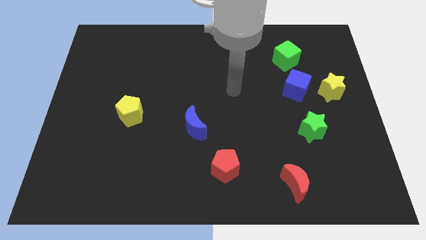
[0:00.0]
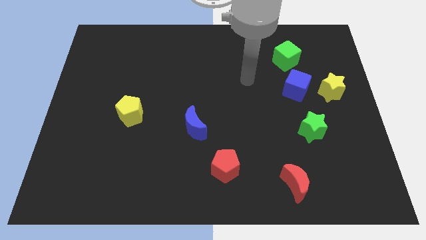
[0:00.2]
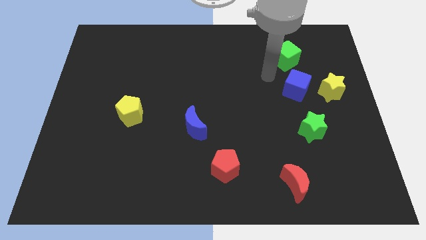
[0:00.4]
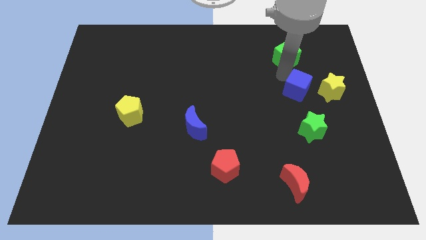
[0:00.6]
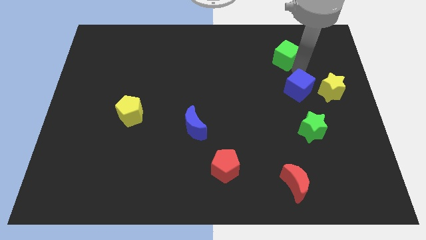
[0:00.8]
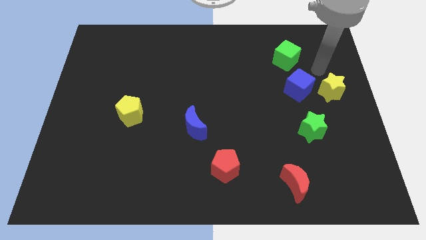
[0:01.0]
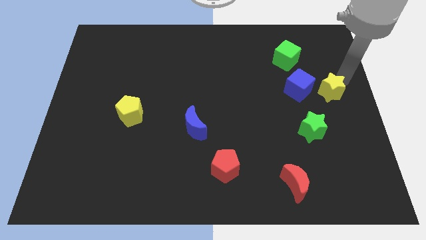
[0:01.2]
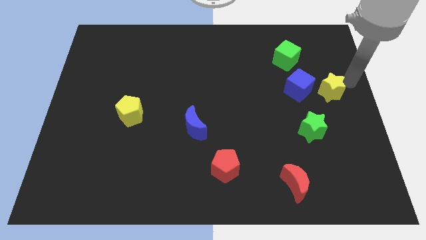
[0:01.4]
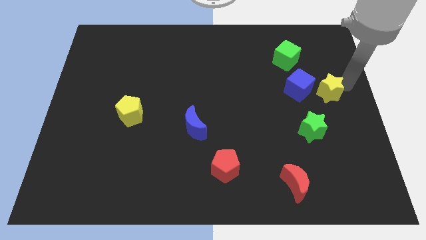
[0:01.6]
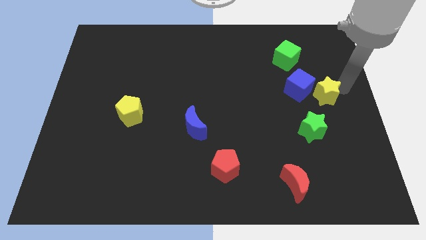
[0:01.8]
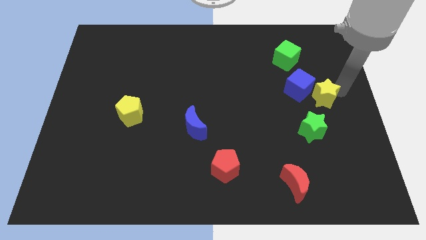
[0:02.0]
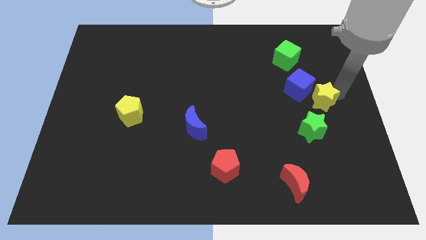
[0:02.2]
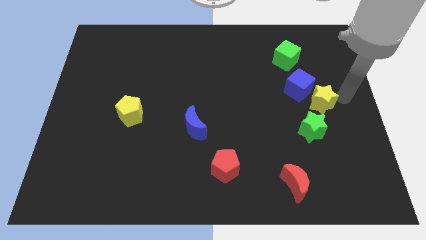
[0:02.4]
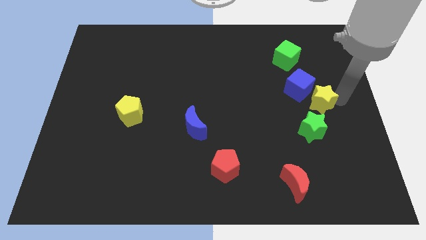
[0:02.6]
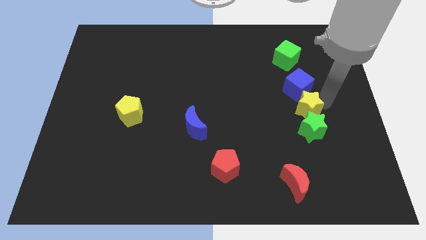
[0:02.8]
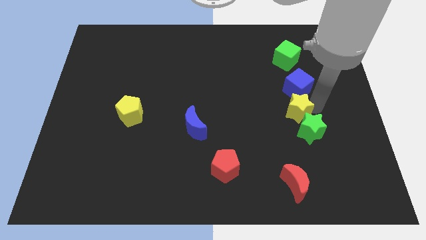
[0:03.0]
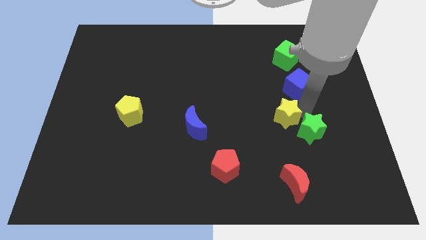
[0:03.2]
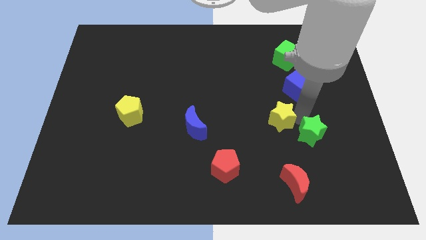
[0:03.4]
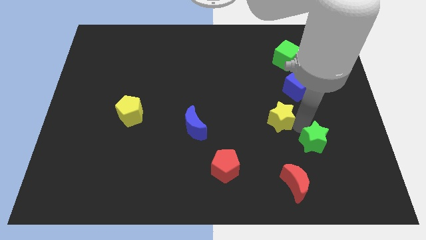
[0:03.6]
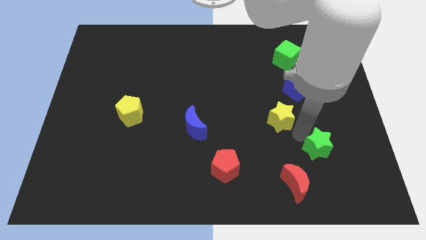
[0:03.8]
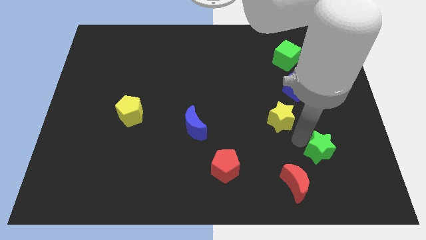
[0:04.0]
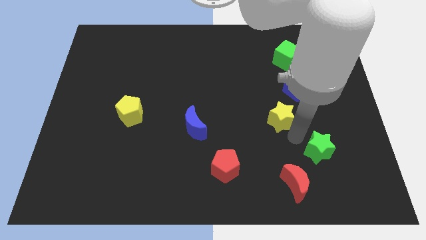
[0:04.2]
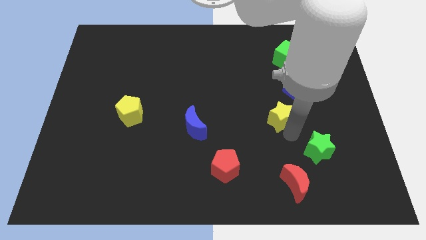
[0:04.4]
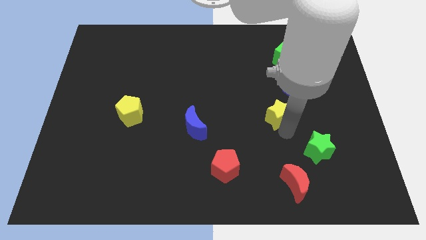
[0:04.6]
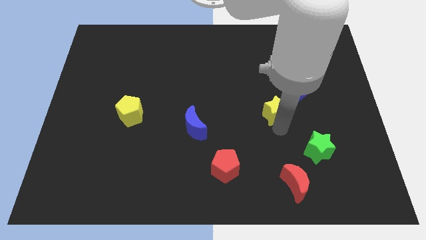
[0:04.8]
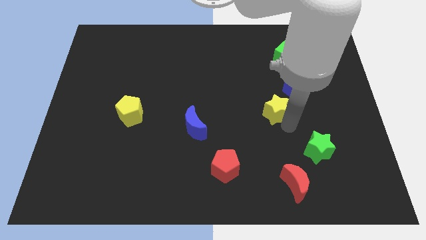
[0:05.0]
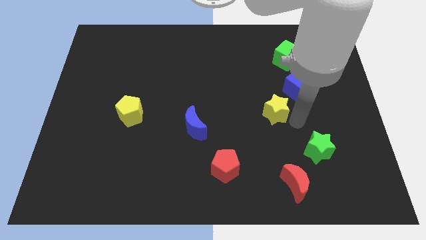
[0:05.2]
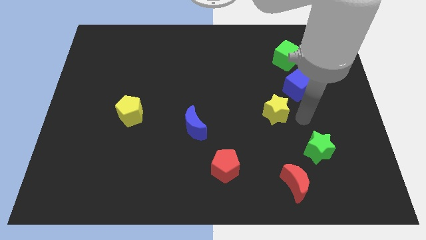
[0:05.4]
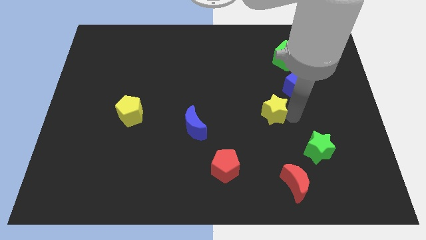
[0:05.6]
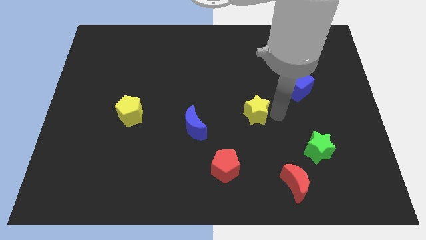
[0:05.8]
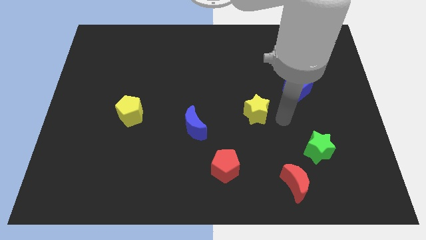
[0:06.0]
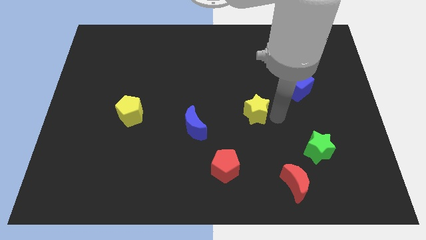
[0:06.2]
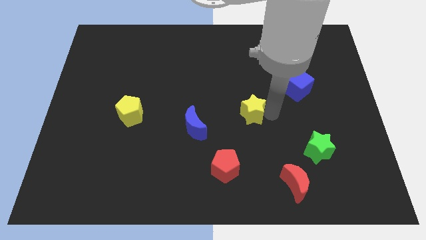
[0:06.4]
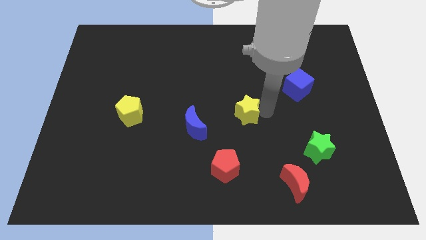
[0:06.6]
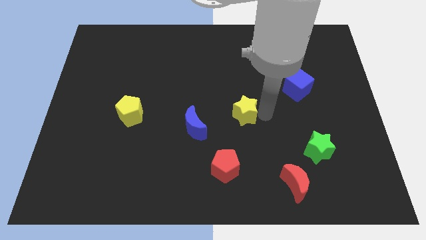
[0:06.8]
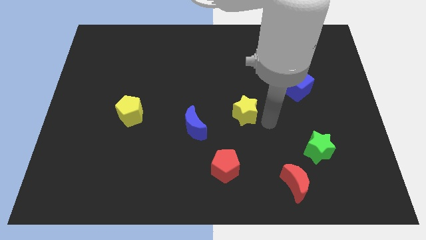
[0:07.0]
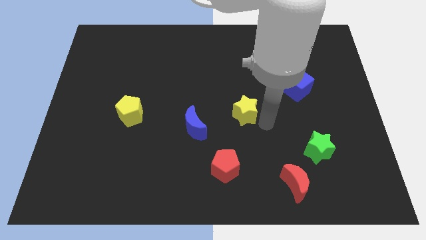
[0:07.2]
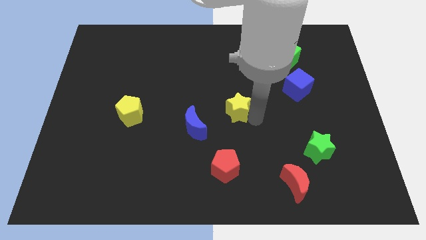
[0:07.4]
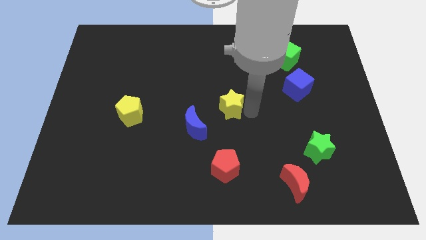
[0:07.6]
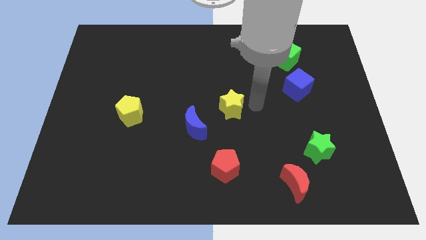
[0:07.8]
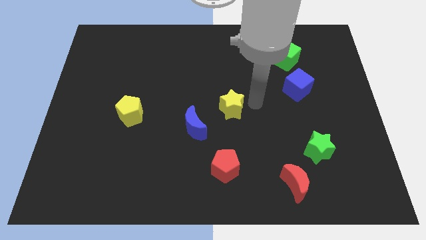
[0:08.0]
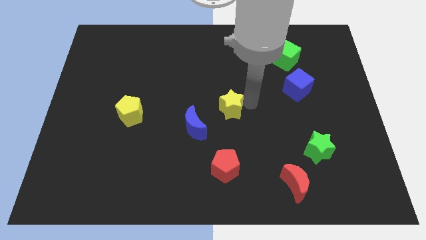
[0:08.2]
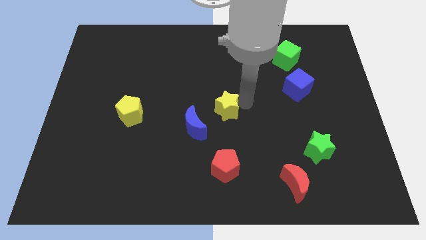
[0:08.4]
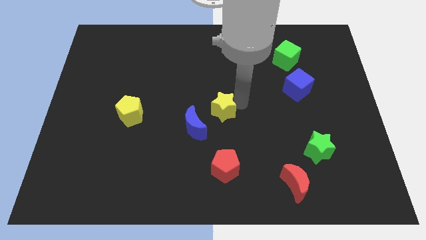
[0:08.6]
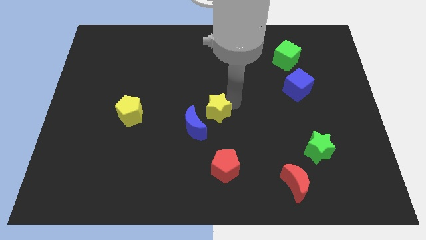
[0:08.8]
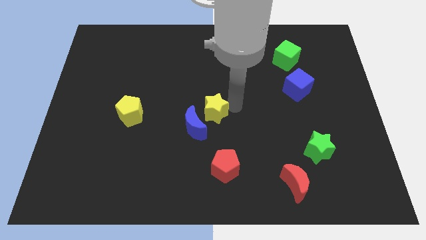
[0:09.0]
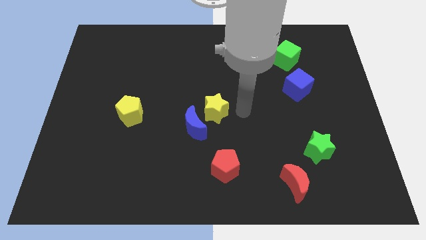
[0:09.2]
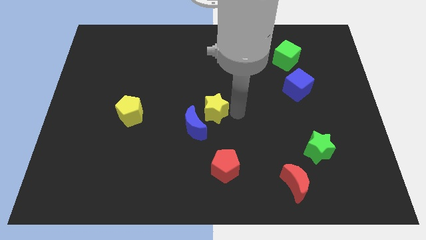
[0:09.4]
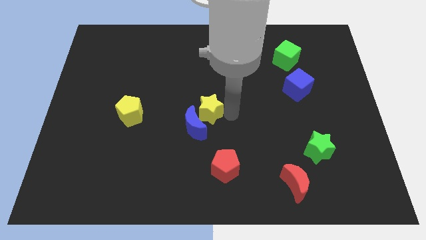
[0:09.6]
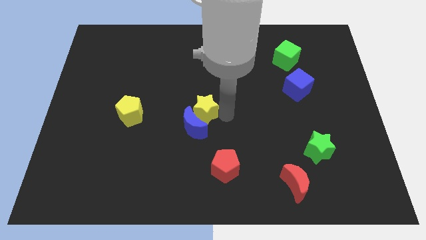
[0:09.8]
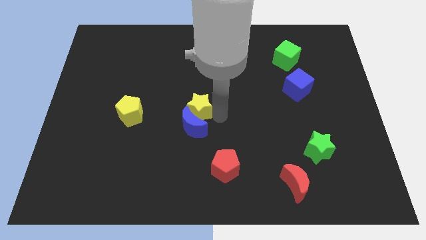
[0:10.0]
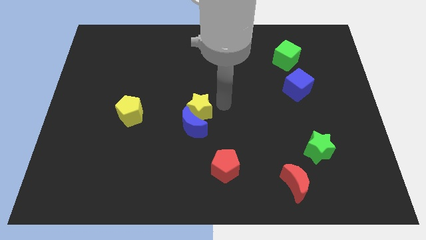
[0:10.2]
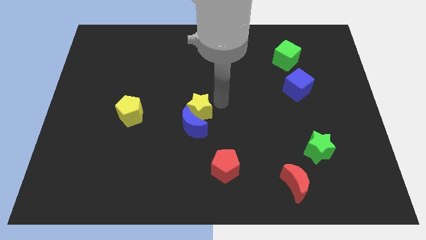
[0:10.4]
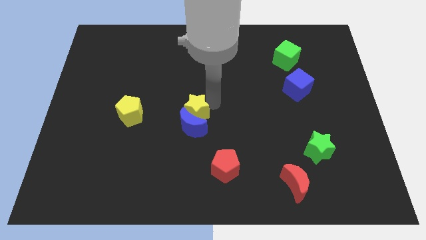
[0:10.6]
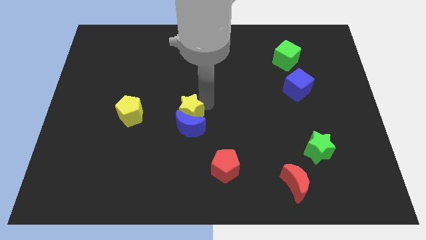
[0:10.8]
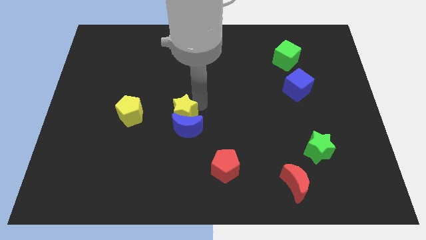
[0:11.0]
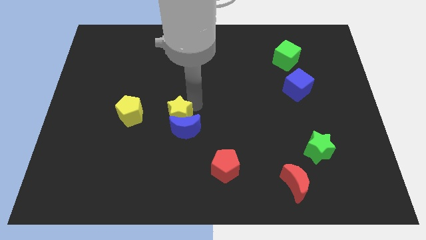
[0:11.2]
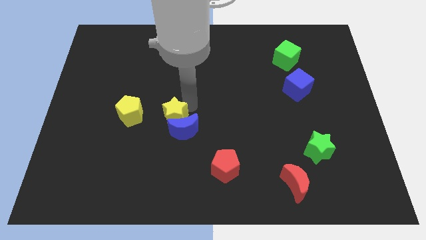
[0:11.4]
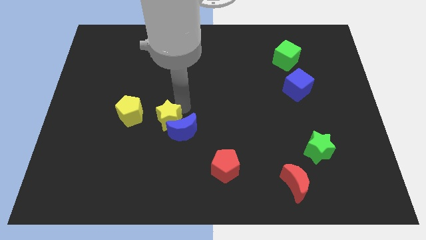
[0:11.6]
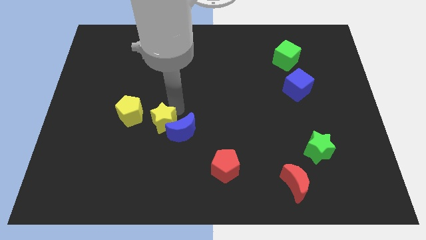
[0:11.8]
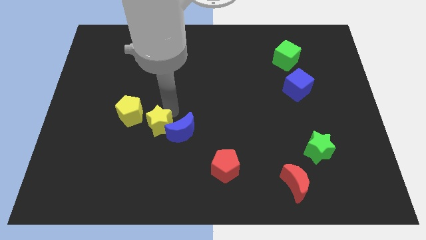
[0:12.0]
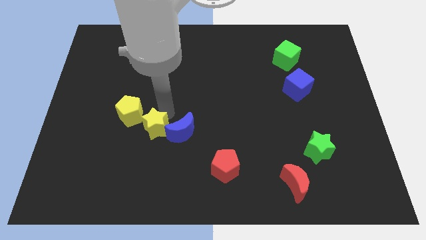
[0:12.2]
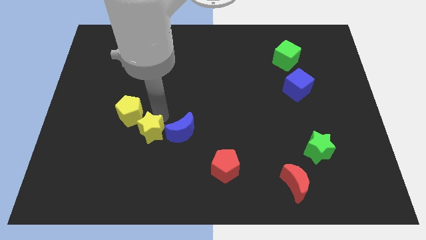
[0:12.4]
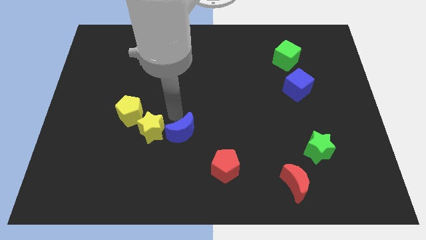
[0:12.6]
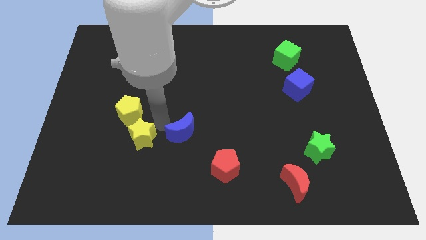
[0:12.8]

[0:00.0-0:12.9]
move the yellow star to the bottom of the yellow pentagon
